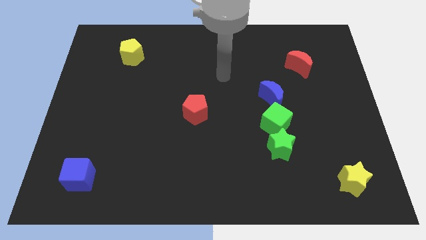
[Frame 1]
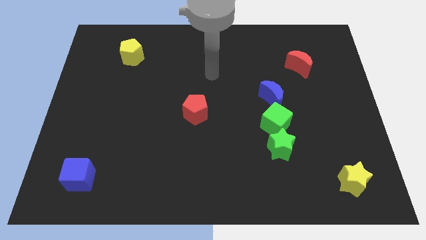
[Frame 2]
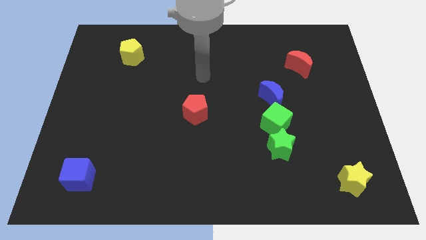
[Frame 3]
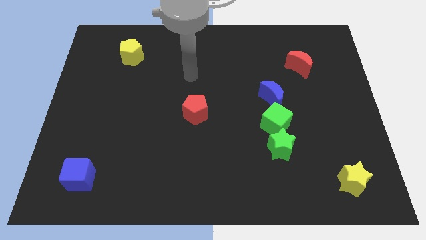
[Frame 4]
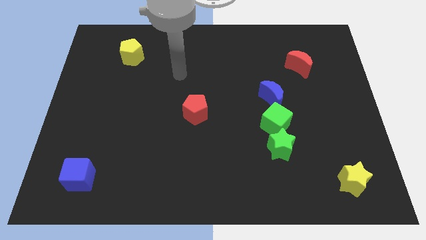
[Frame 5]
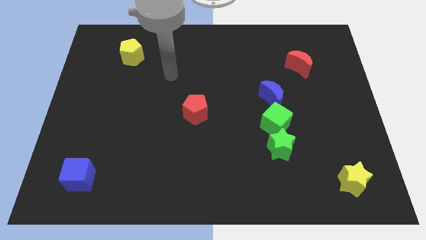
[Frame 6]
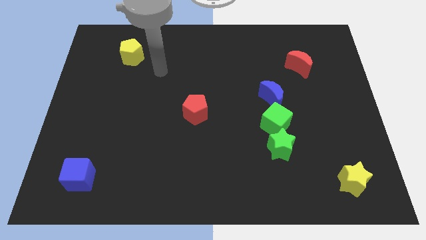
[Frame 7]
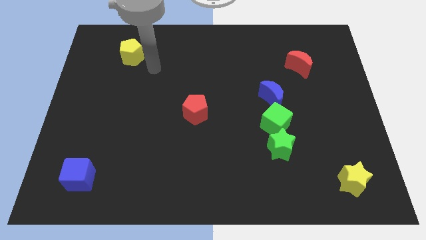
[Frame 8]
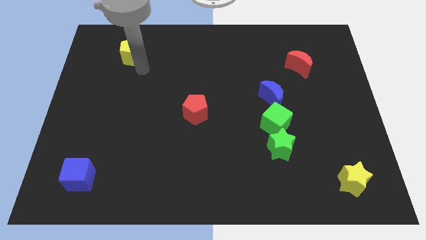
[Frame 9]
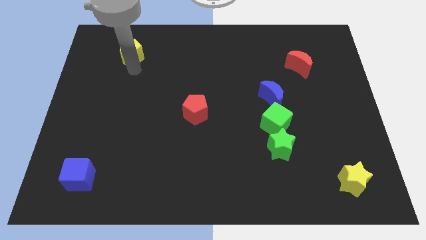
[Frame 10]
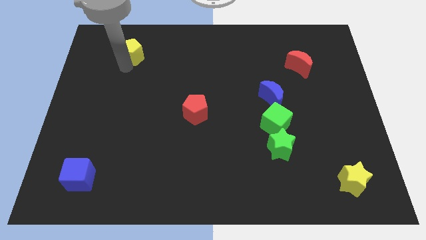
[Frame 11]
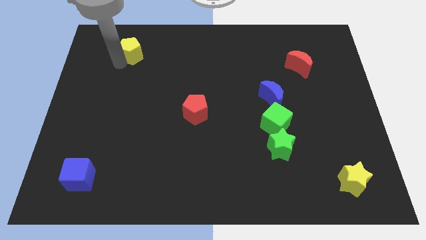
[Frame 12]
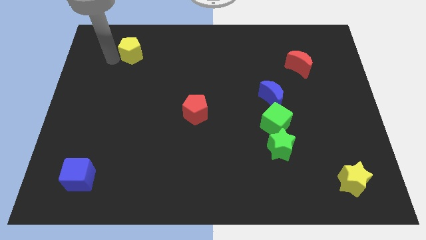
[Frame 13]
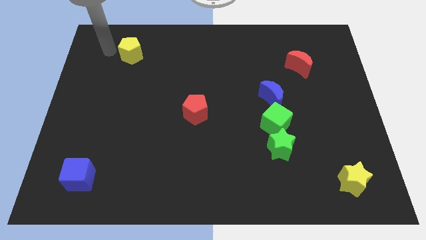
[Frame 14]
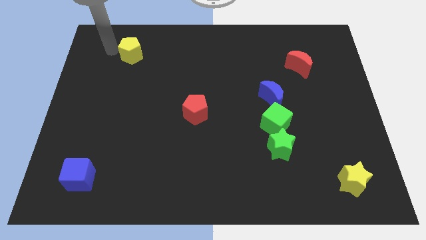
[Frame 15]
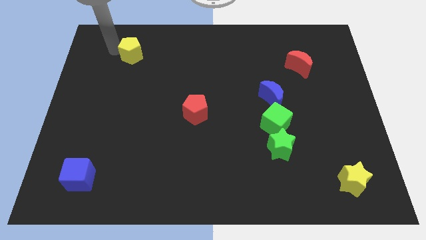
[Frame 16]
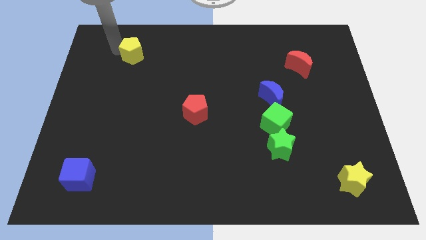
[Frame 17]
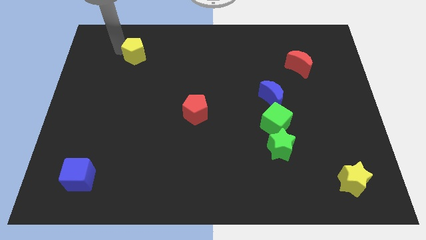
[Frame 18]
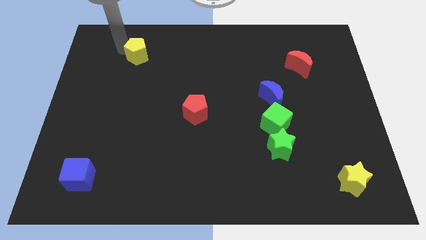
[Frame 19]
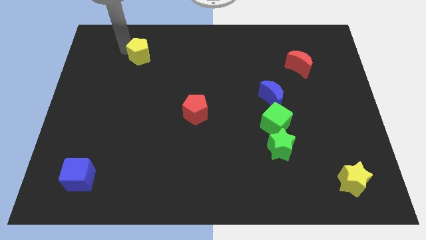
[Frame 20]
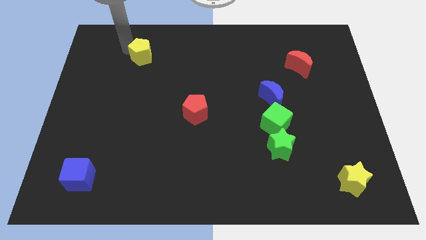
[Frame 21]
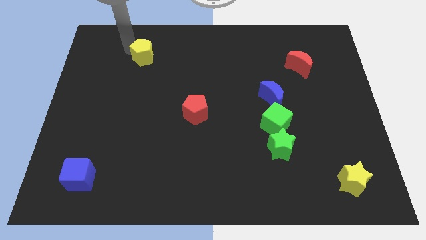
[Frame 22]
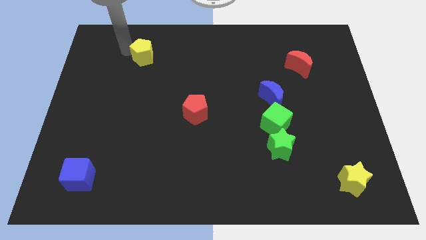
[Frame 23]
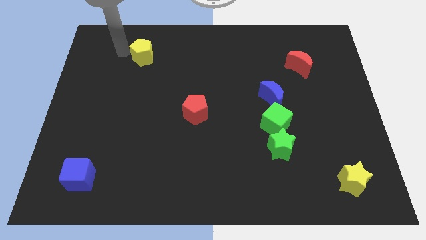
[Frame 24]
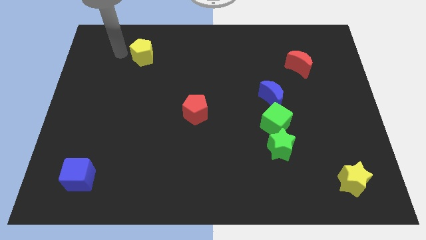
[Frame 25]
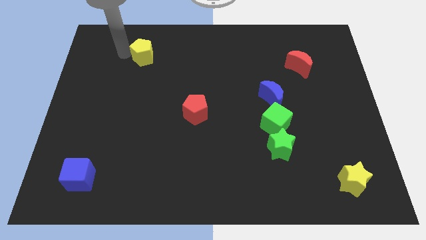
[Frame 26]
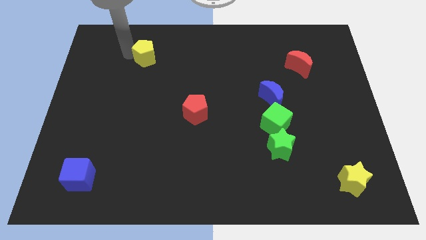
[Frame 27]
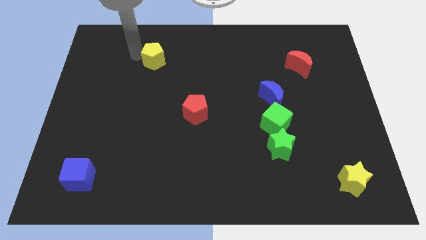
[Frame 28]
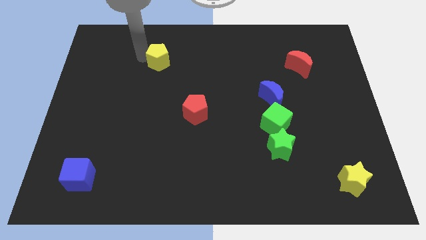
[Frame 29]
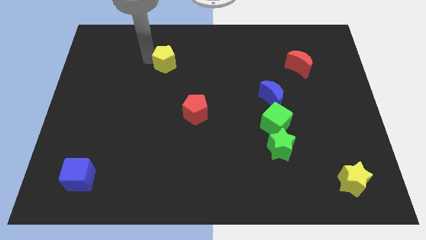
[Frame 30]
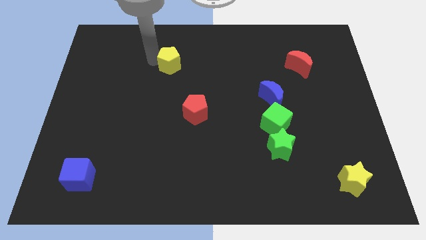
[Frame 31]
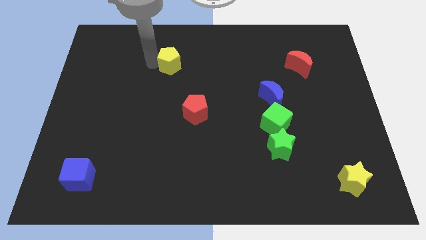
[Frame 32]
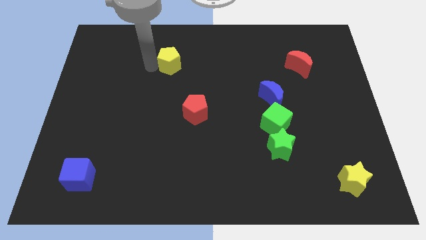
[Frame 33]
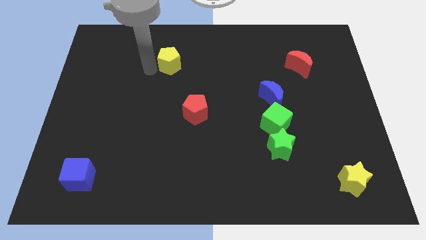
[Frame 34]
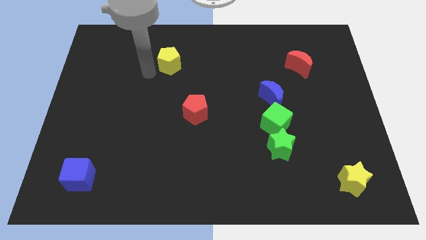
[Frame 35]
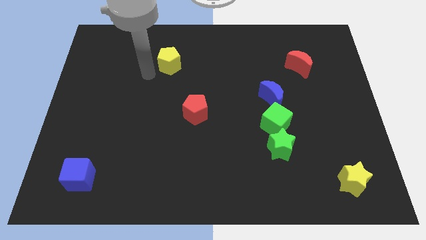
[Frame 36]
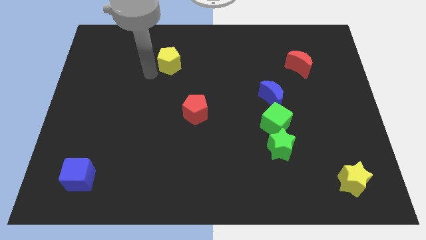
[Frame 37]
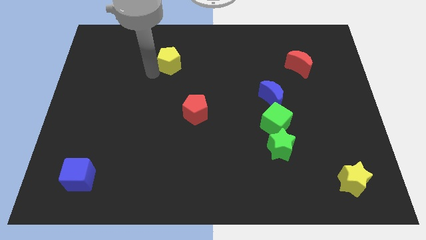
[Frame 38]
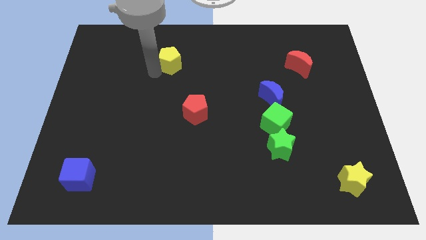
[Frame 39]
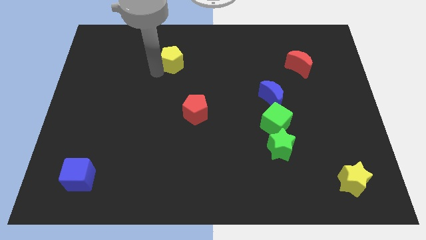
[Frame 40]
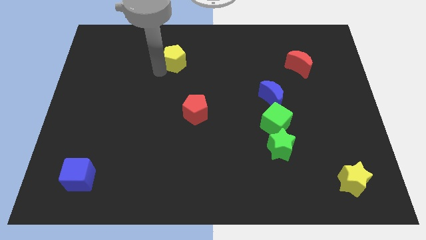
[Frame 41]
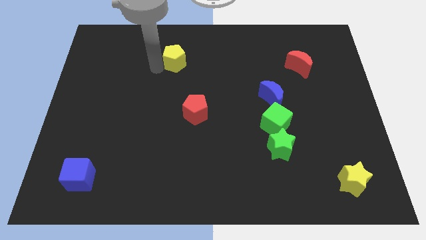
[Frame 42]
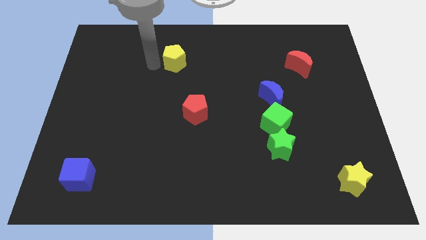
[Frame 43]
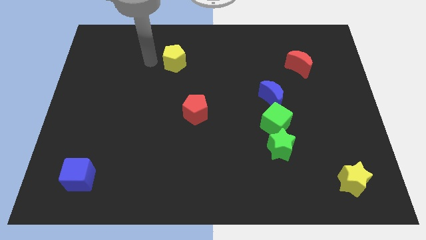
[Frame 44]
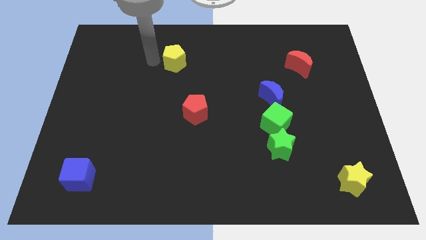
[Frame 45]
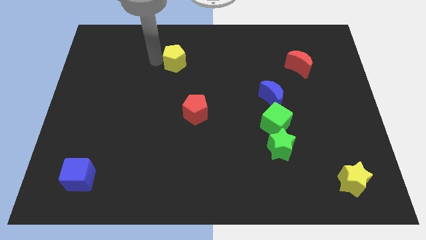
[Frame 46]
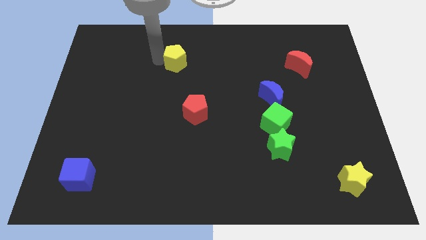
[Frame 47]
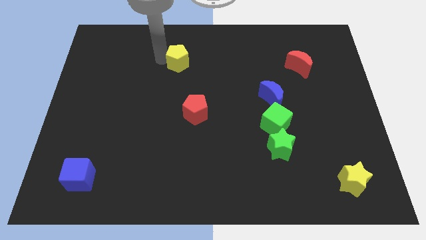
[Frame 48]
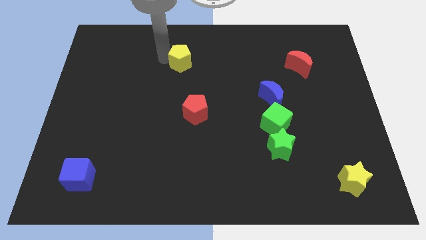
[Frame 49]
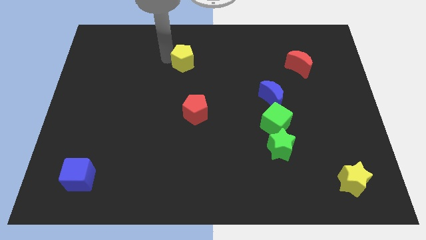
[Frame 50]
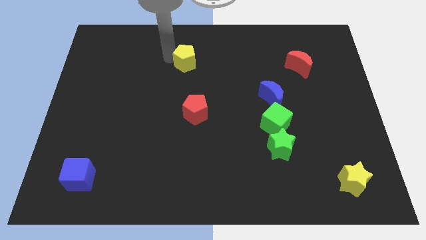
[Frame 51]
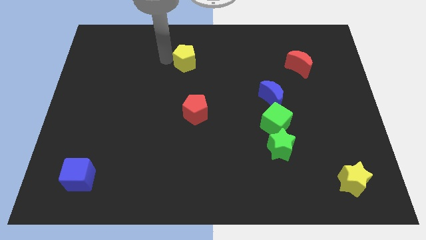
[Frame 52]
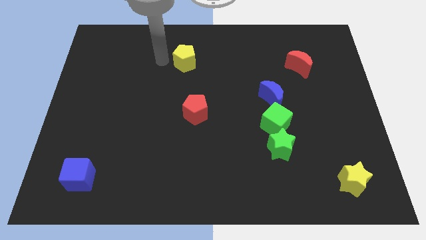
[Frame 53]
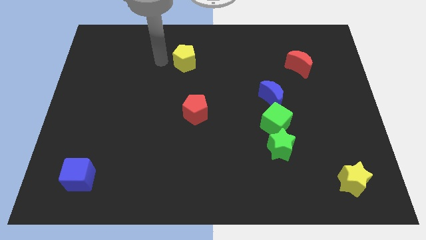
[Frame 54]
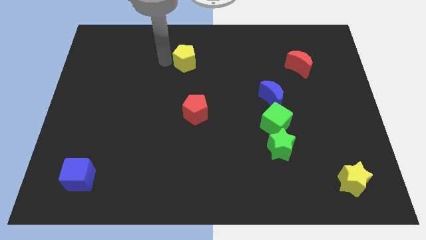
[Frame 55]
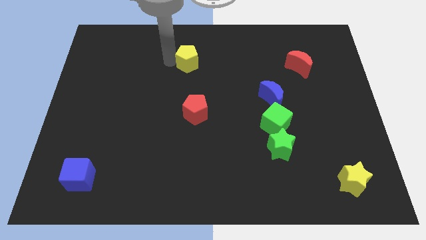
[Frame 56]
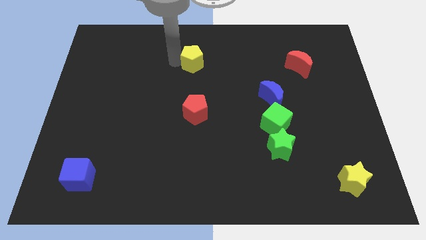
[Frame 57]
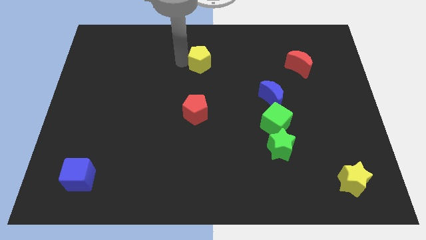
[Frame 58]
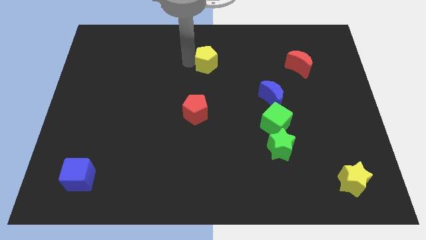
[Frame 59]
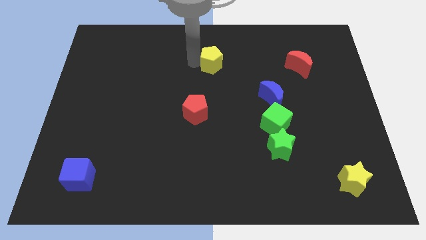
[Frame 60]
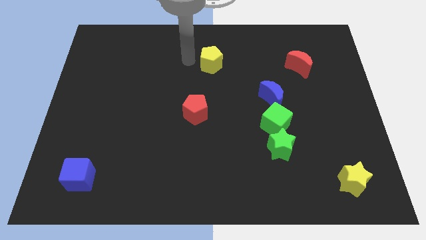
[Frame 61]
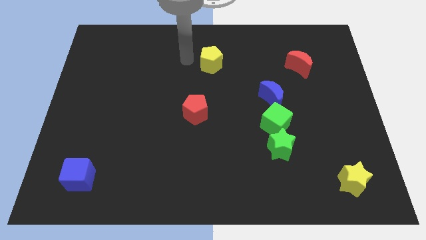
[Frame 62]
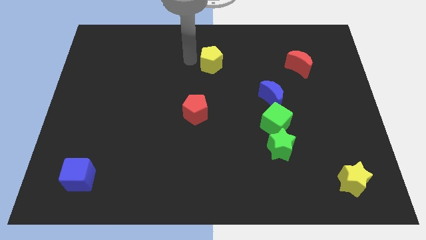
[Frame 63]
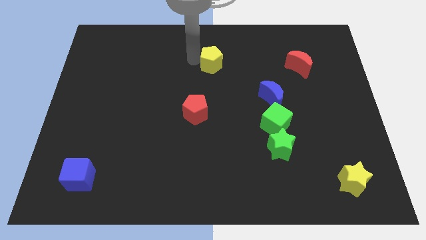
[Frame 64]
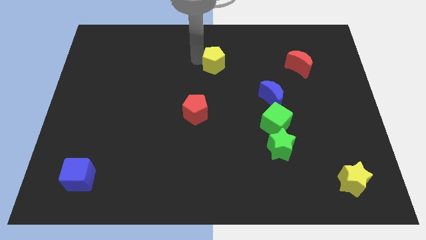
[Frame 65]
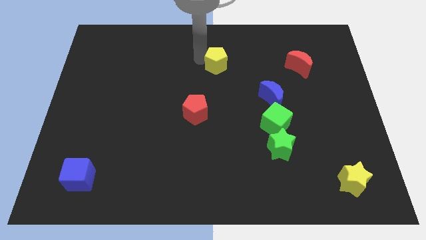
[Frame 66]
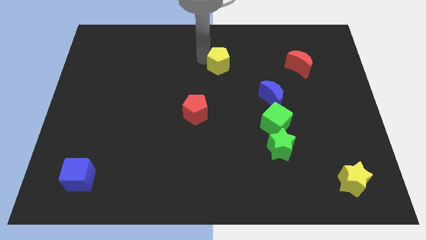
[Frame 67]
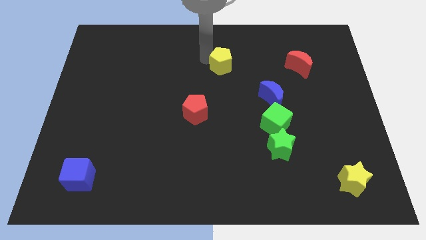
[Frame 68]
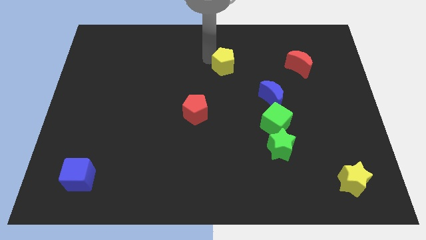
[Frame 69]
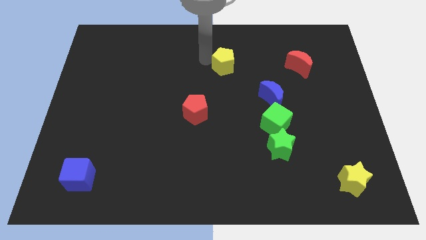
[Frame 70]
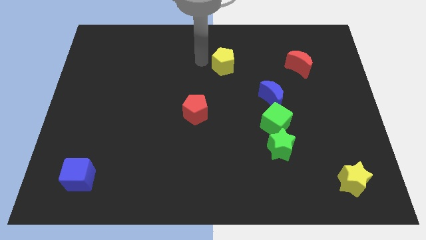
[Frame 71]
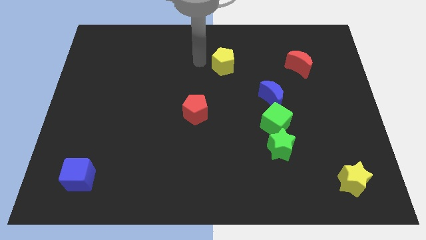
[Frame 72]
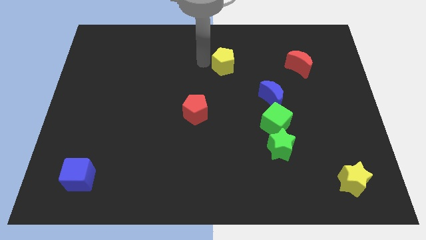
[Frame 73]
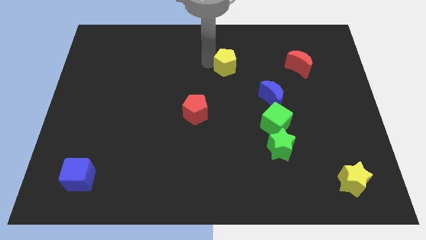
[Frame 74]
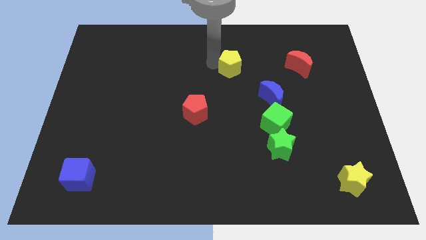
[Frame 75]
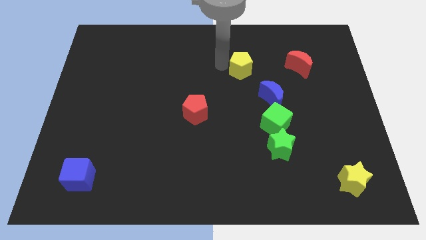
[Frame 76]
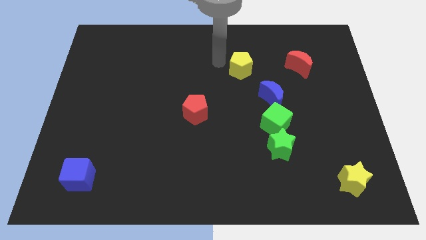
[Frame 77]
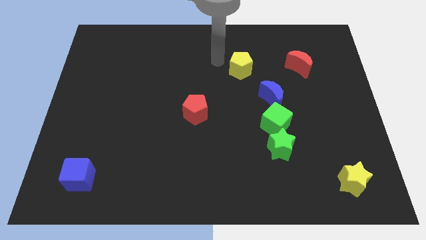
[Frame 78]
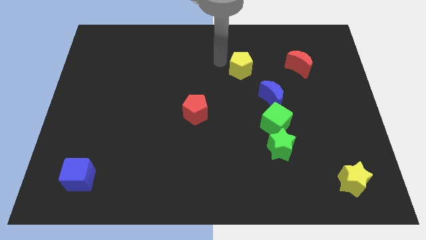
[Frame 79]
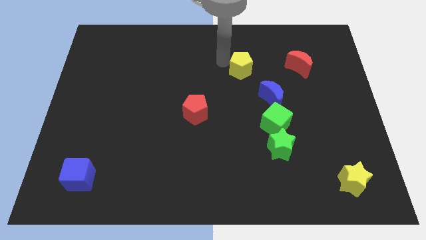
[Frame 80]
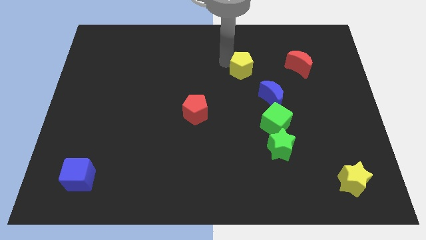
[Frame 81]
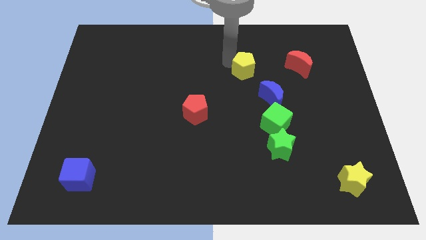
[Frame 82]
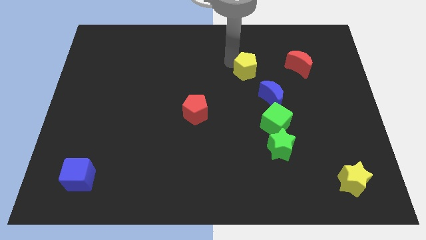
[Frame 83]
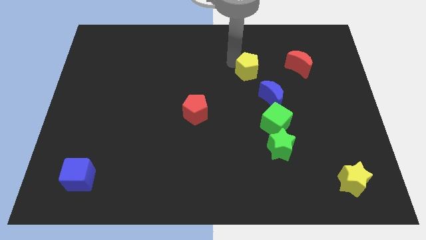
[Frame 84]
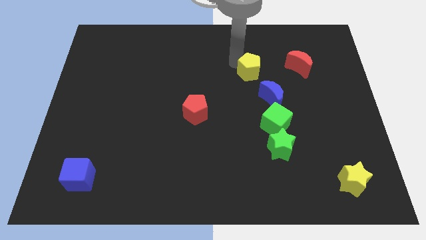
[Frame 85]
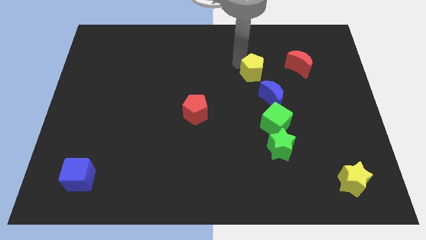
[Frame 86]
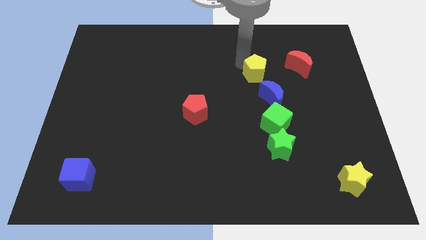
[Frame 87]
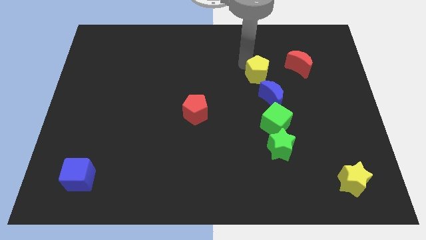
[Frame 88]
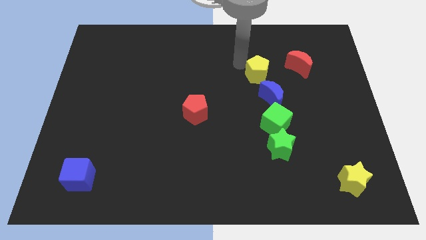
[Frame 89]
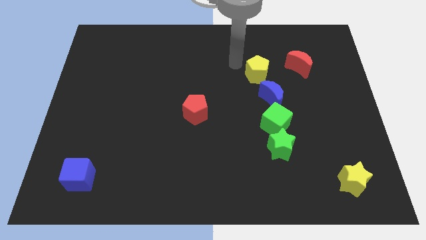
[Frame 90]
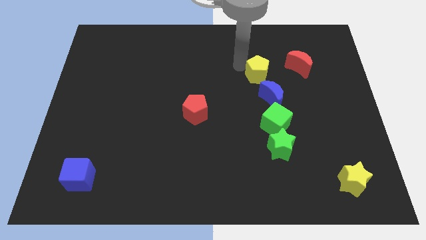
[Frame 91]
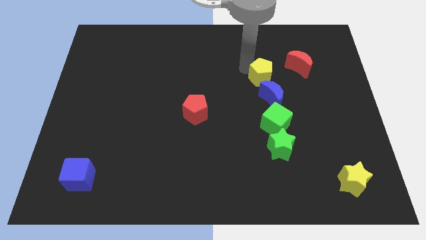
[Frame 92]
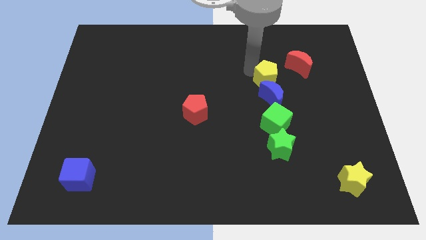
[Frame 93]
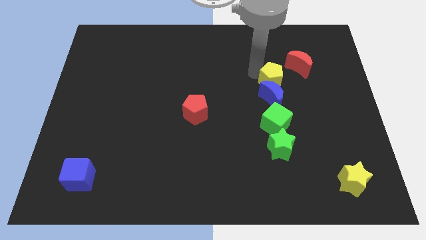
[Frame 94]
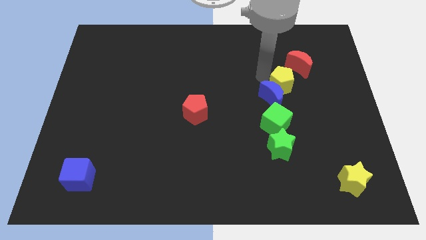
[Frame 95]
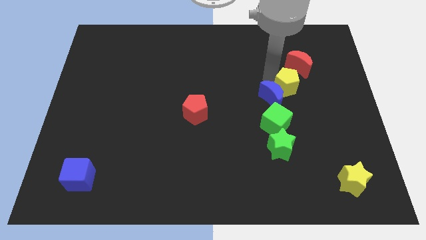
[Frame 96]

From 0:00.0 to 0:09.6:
put the yellow pentagon just right of the blue moon
